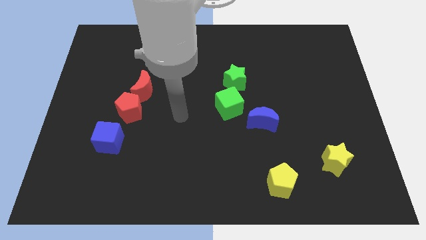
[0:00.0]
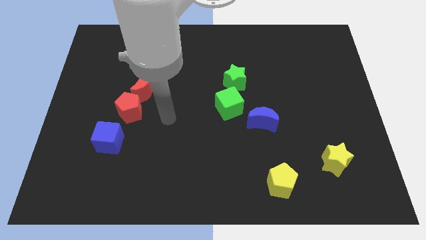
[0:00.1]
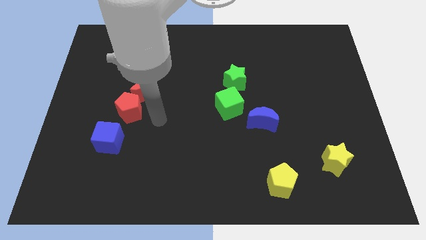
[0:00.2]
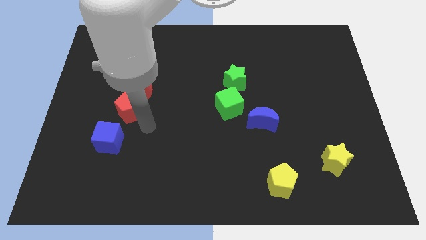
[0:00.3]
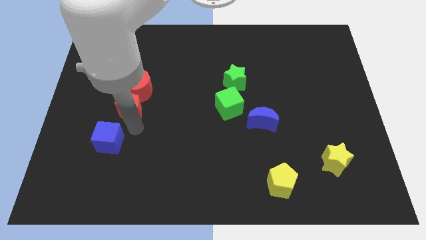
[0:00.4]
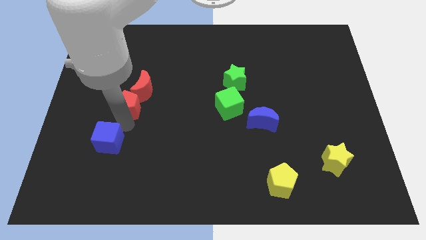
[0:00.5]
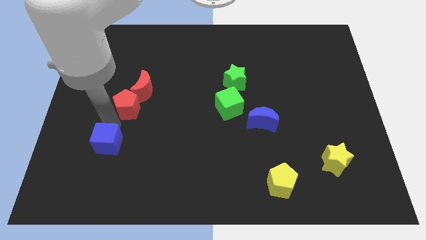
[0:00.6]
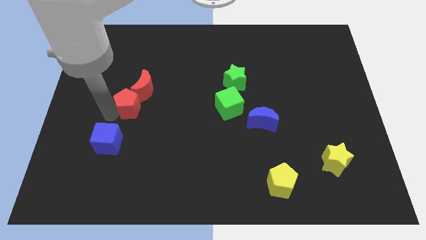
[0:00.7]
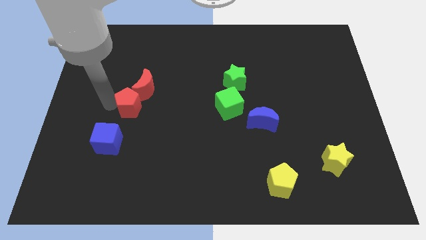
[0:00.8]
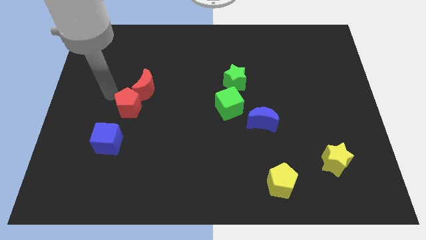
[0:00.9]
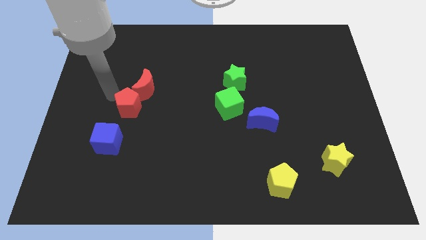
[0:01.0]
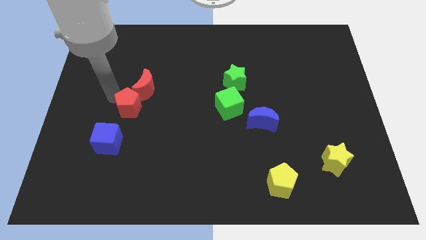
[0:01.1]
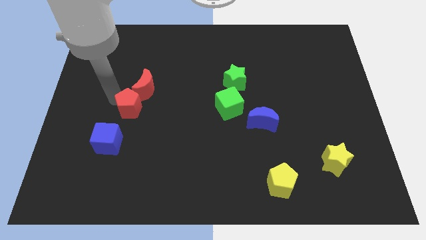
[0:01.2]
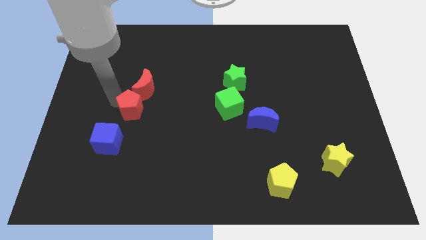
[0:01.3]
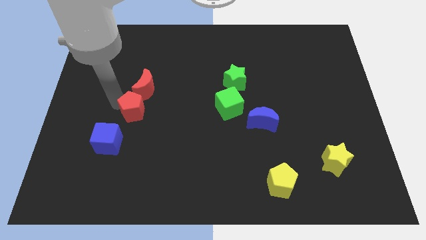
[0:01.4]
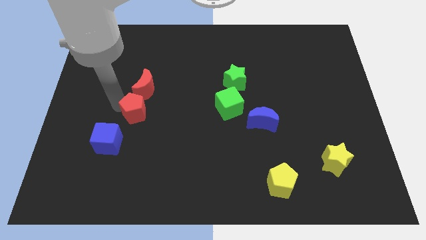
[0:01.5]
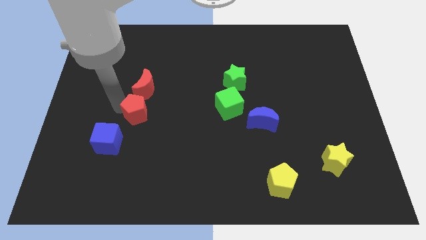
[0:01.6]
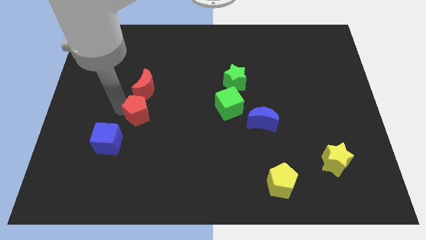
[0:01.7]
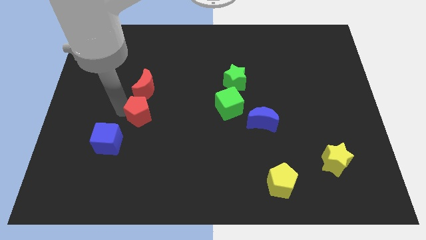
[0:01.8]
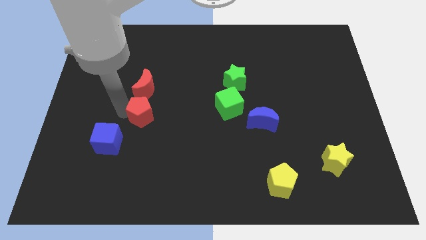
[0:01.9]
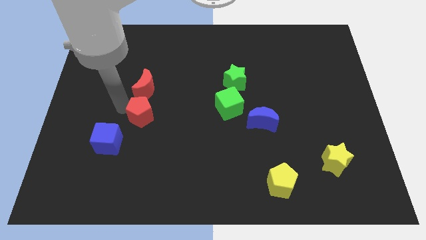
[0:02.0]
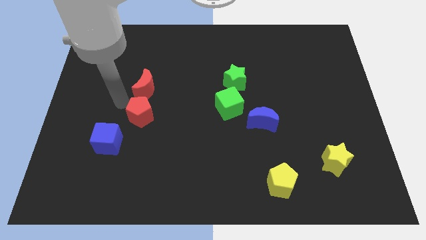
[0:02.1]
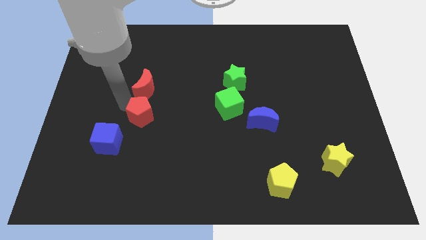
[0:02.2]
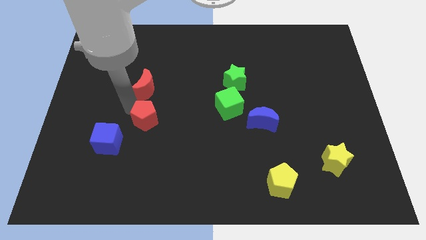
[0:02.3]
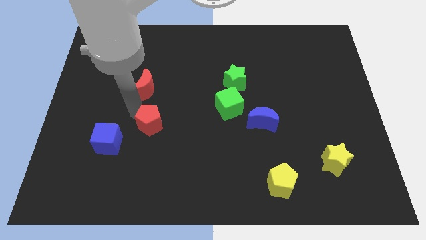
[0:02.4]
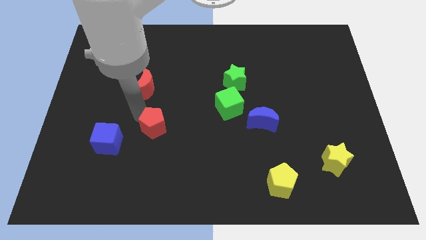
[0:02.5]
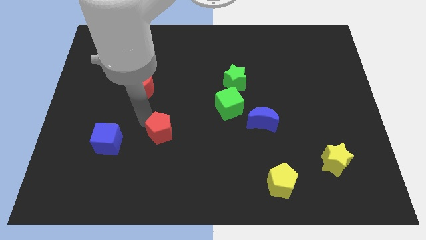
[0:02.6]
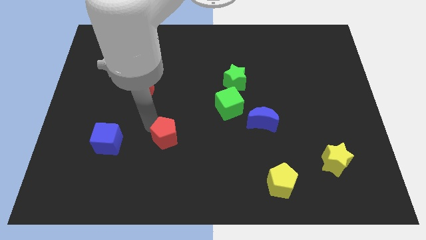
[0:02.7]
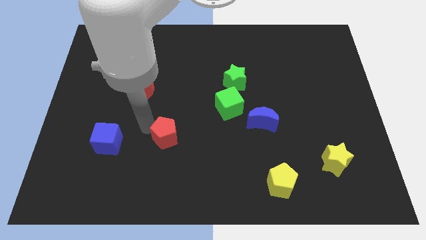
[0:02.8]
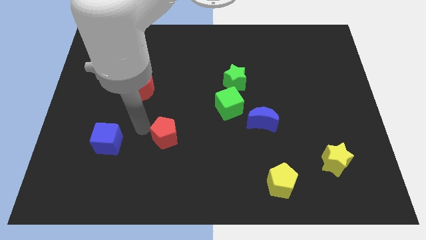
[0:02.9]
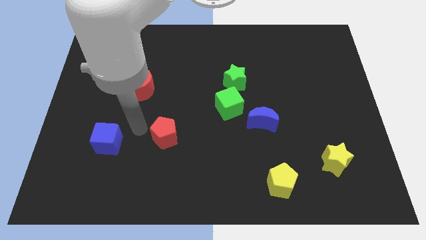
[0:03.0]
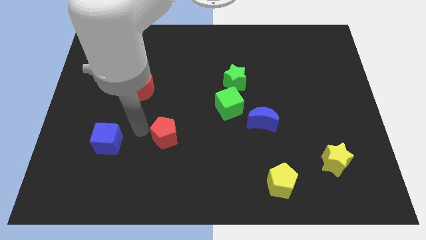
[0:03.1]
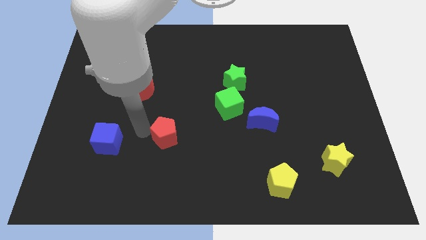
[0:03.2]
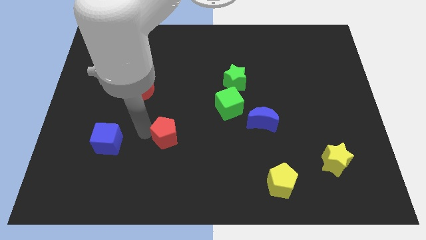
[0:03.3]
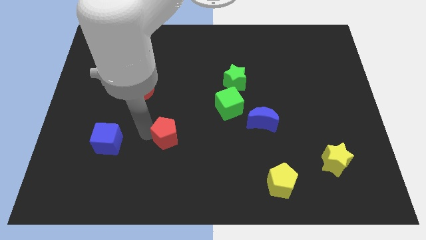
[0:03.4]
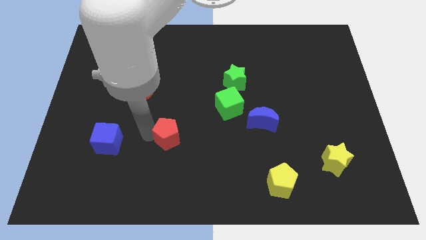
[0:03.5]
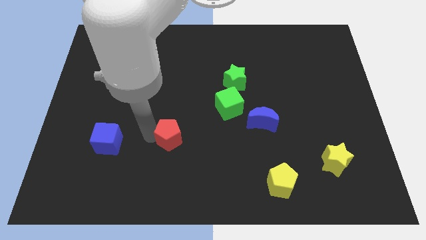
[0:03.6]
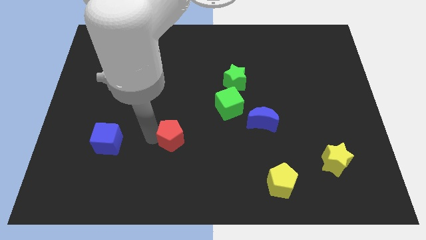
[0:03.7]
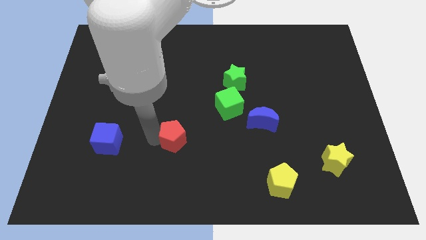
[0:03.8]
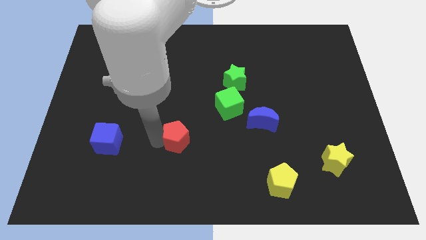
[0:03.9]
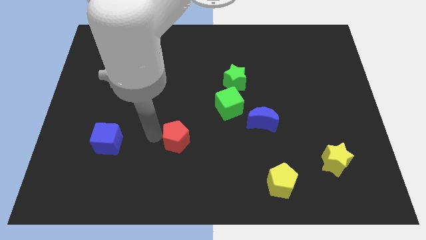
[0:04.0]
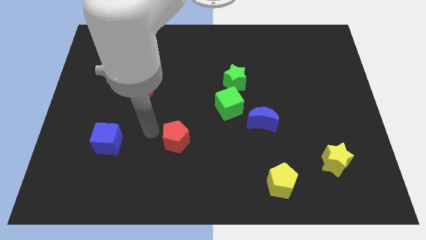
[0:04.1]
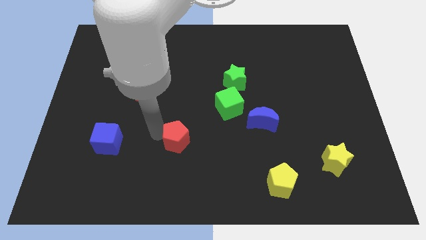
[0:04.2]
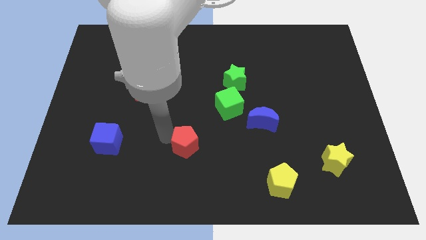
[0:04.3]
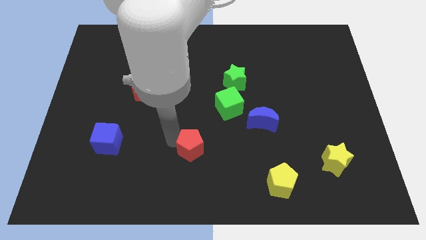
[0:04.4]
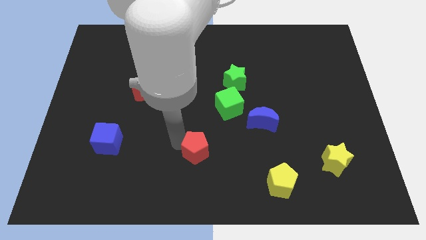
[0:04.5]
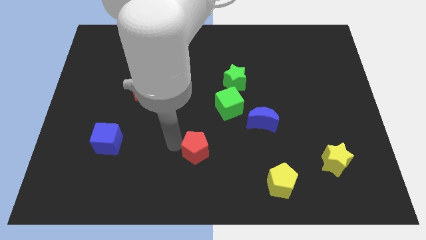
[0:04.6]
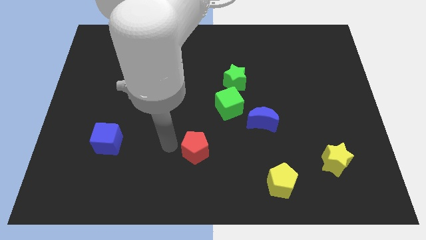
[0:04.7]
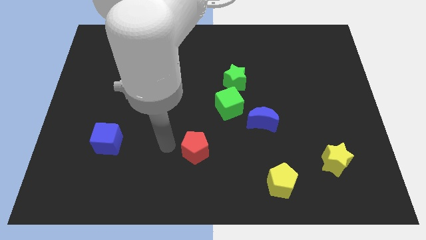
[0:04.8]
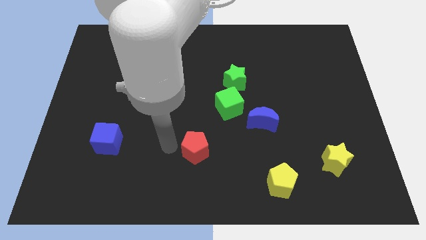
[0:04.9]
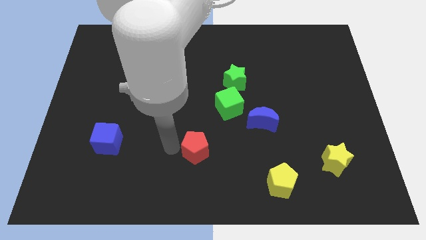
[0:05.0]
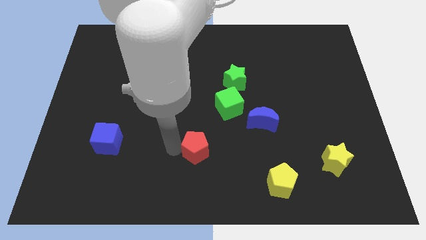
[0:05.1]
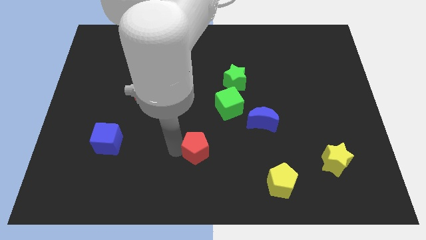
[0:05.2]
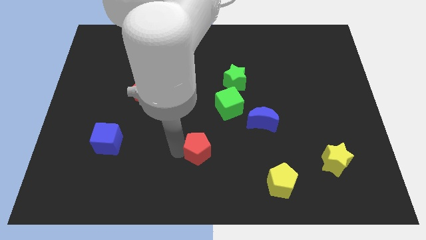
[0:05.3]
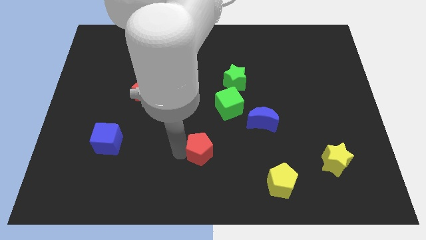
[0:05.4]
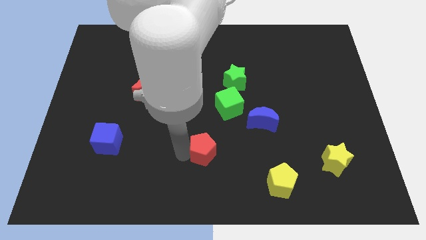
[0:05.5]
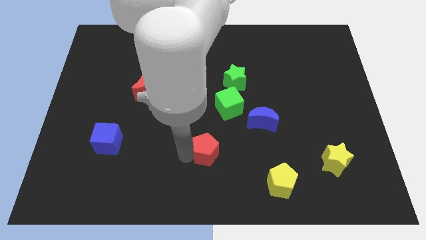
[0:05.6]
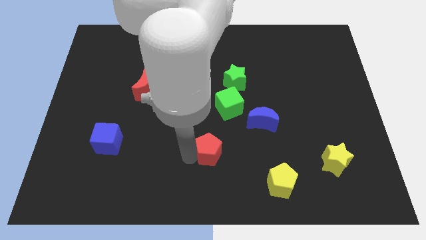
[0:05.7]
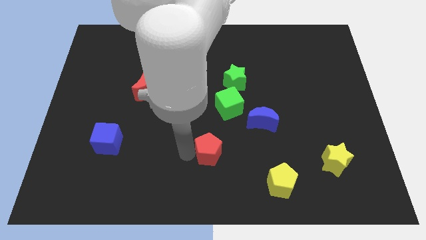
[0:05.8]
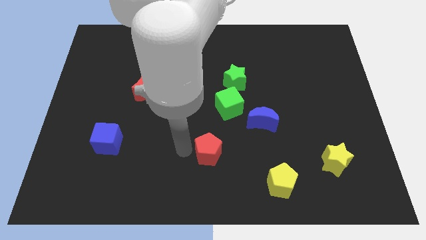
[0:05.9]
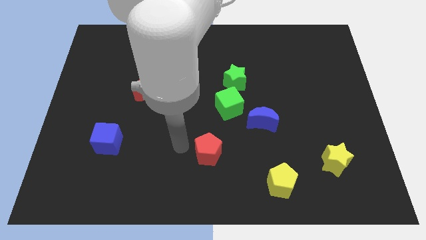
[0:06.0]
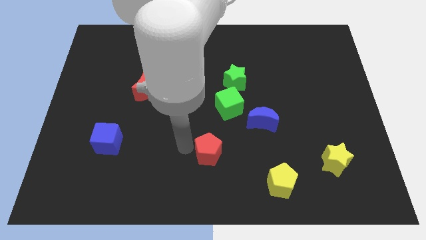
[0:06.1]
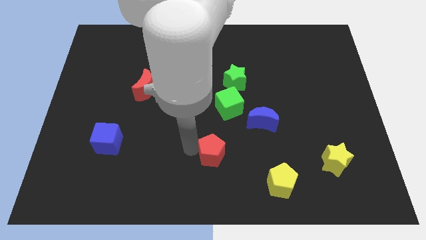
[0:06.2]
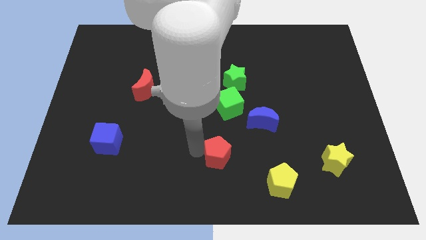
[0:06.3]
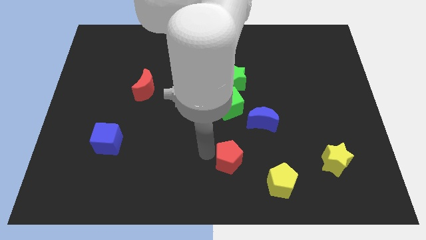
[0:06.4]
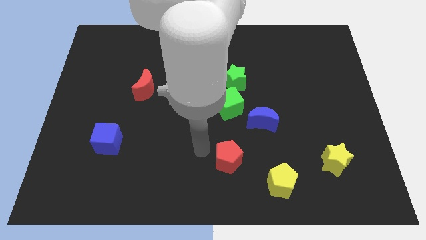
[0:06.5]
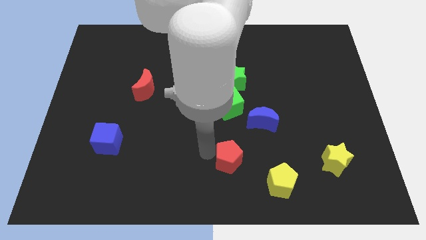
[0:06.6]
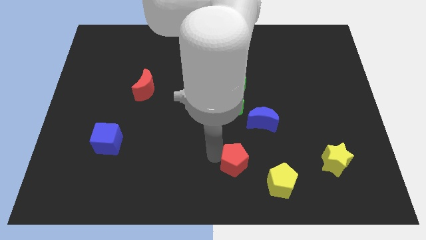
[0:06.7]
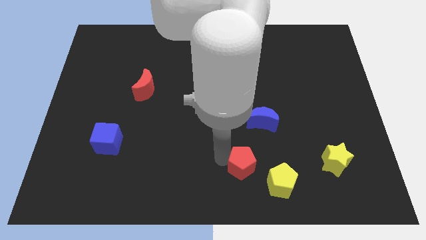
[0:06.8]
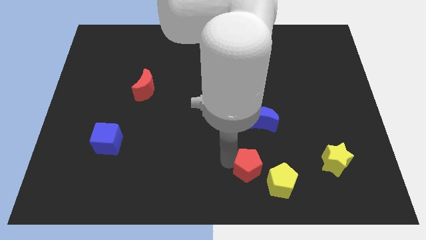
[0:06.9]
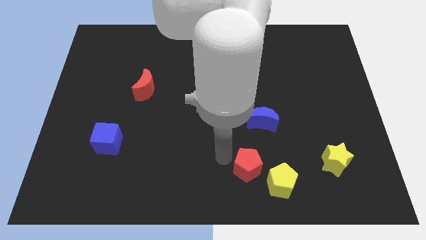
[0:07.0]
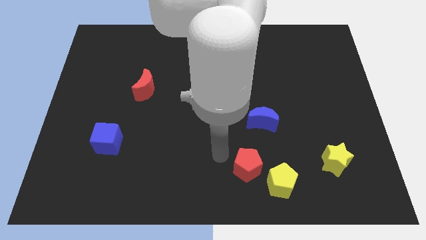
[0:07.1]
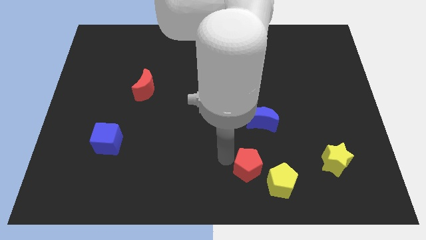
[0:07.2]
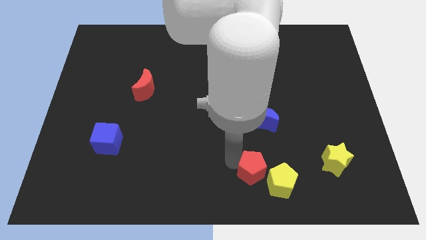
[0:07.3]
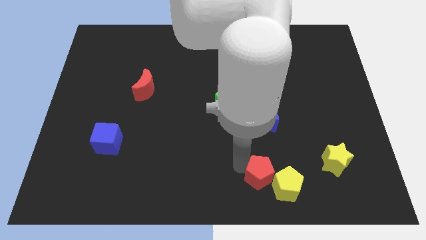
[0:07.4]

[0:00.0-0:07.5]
slide the red pentagon towards the yellow pentagon

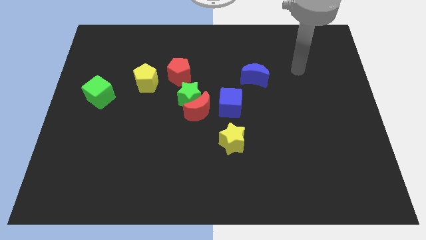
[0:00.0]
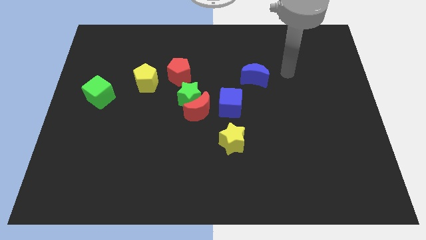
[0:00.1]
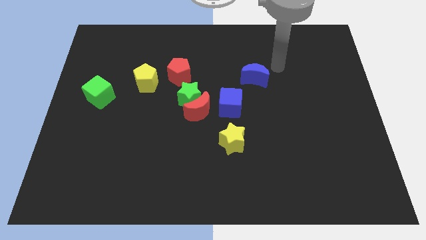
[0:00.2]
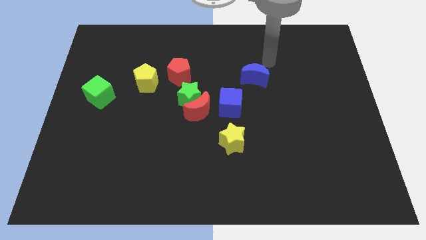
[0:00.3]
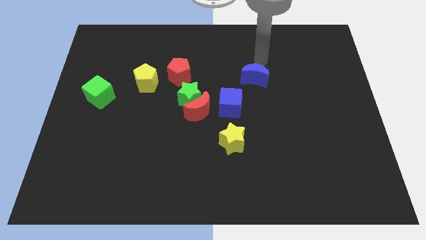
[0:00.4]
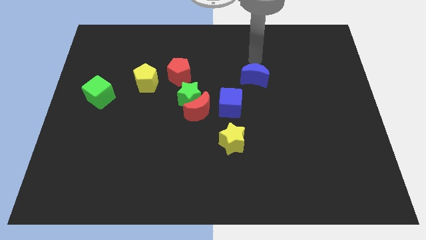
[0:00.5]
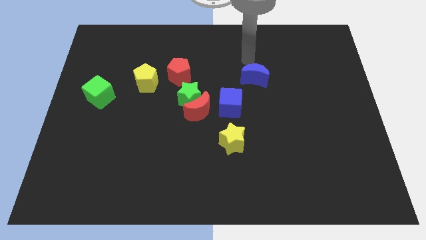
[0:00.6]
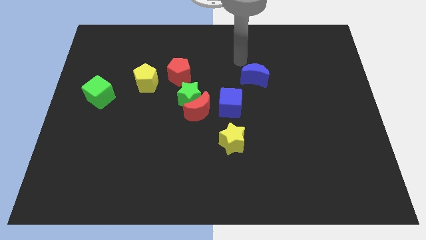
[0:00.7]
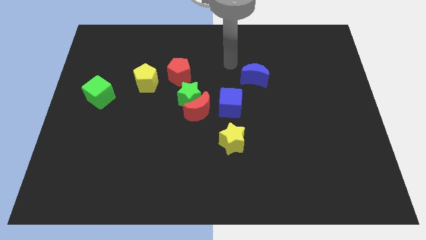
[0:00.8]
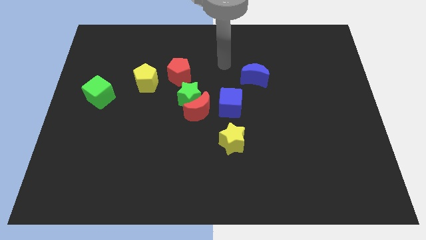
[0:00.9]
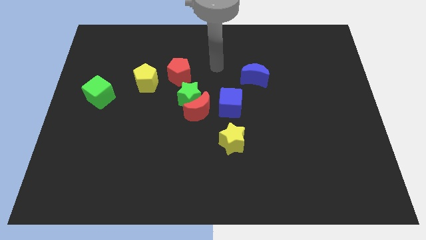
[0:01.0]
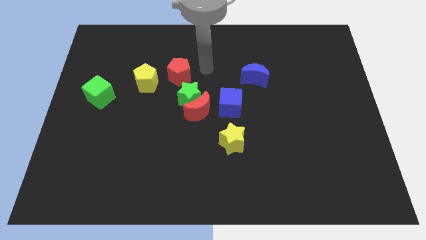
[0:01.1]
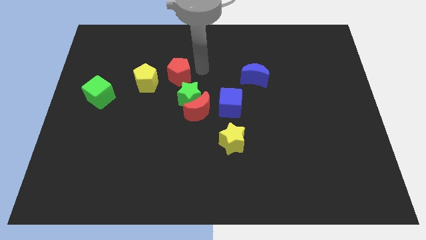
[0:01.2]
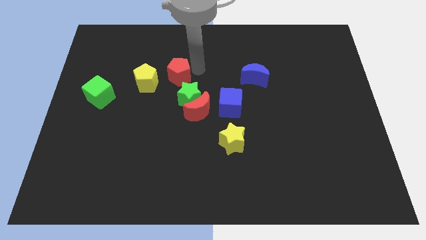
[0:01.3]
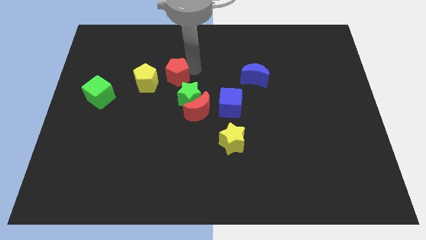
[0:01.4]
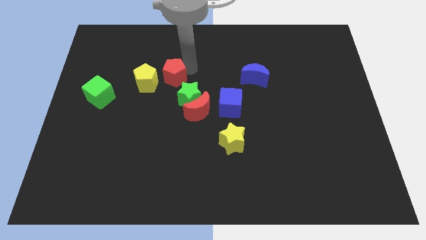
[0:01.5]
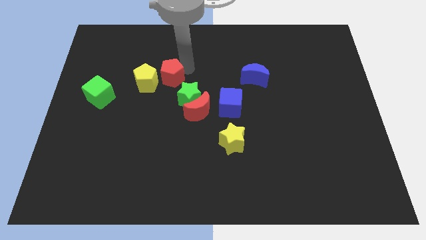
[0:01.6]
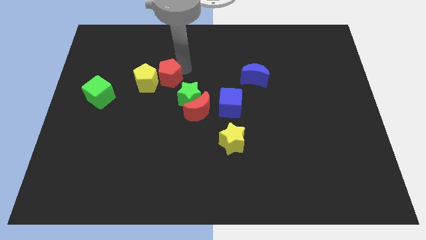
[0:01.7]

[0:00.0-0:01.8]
push the red pentagon close to the yellow pentagon
